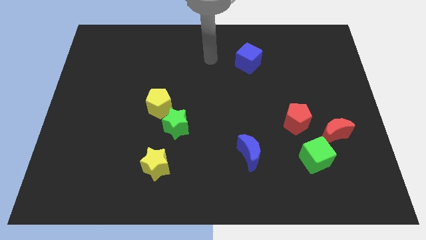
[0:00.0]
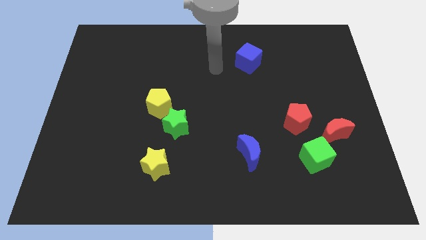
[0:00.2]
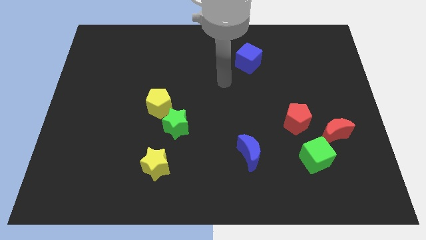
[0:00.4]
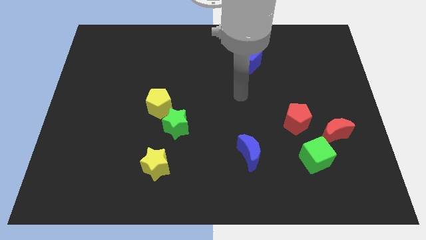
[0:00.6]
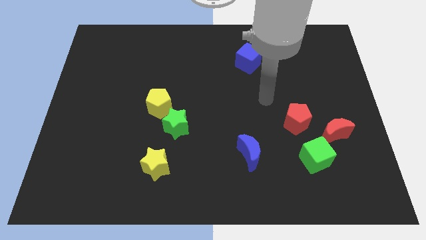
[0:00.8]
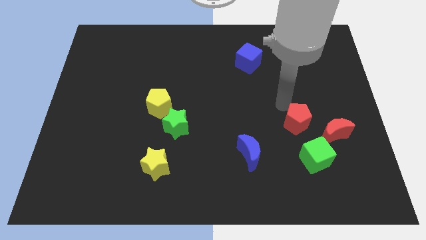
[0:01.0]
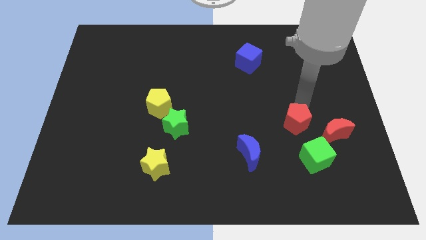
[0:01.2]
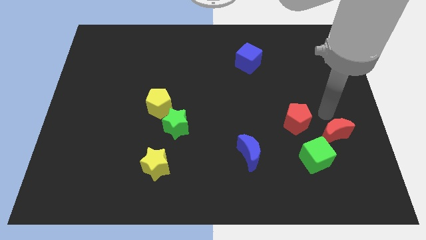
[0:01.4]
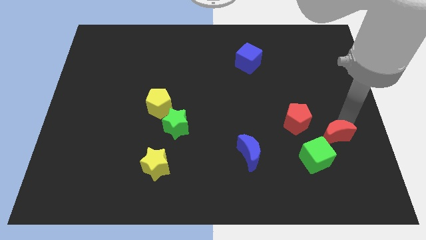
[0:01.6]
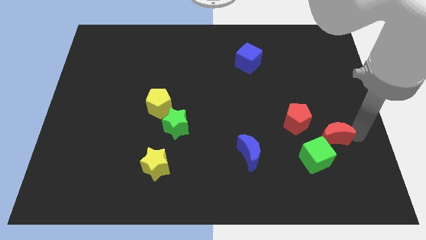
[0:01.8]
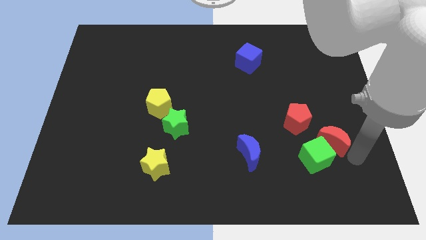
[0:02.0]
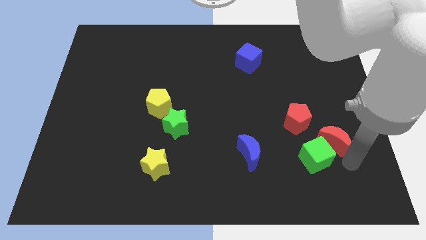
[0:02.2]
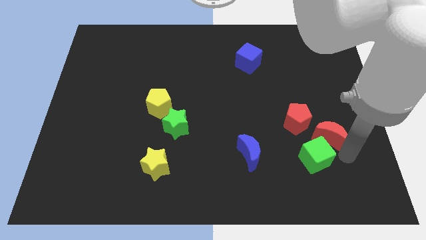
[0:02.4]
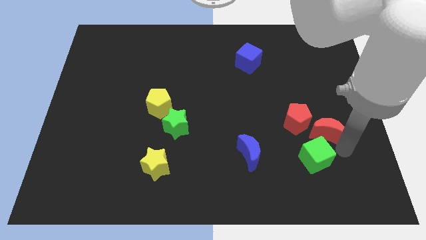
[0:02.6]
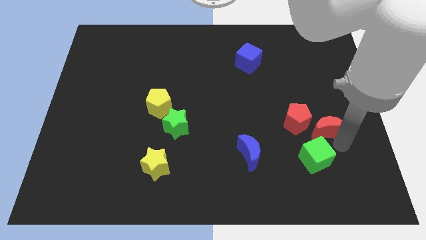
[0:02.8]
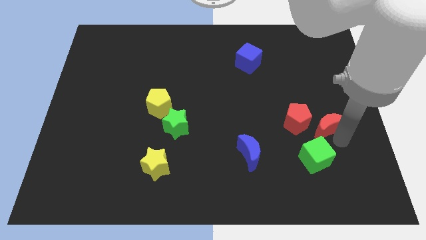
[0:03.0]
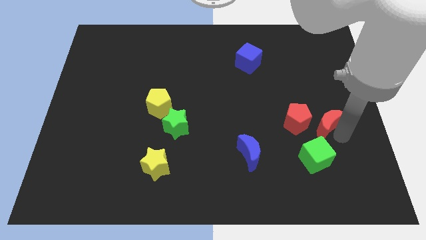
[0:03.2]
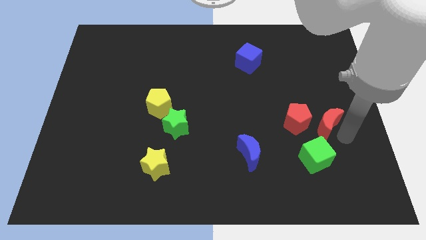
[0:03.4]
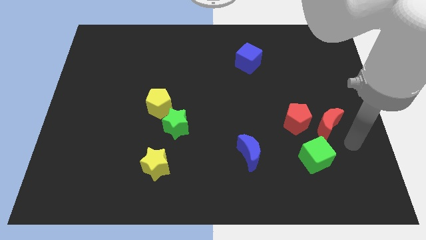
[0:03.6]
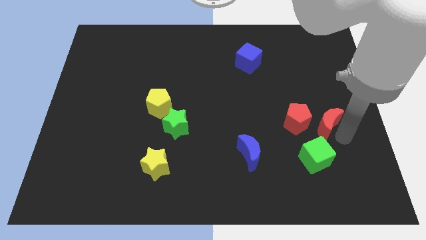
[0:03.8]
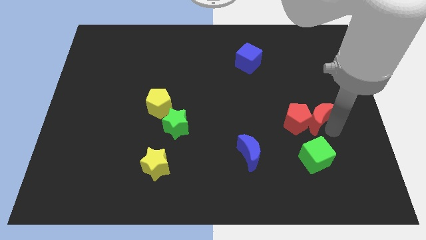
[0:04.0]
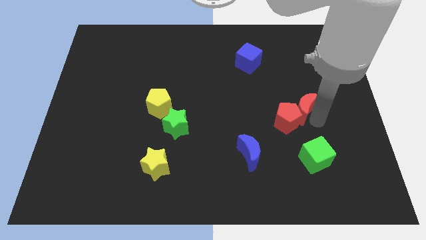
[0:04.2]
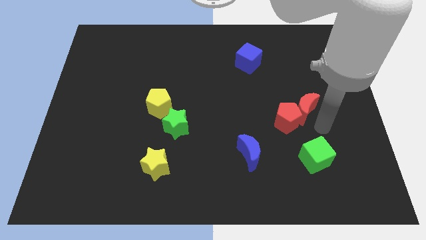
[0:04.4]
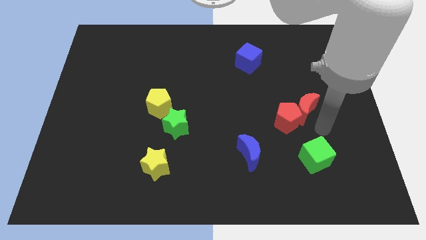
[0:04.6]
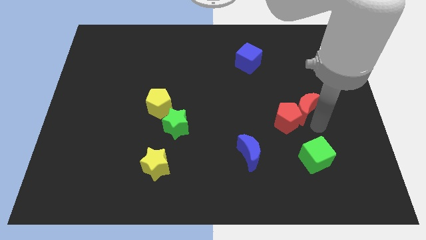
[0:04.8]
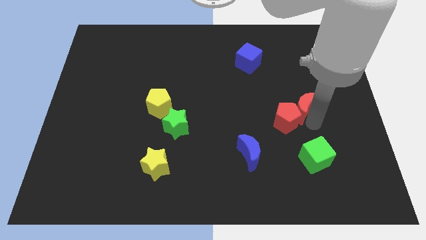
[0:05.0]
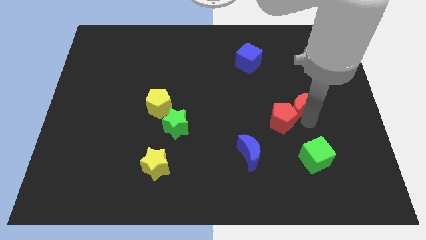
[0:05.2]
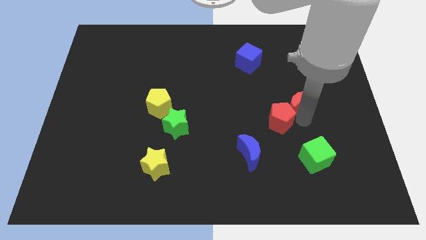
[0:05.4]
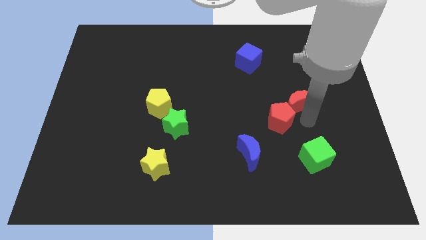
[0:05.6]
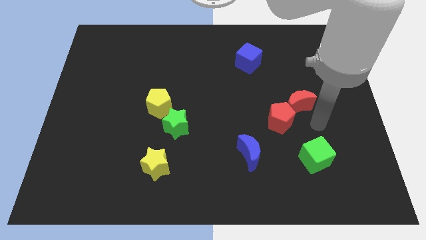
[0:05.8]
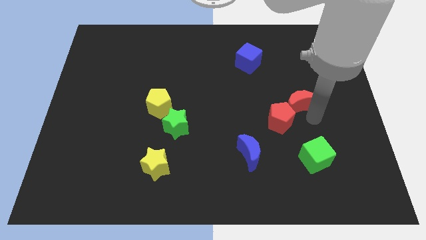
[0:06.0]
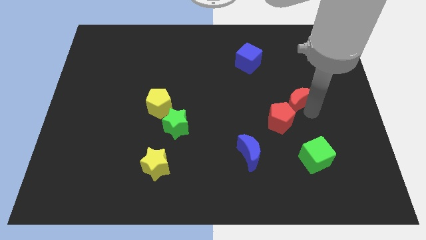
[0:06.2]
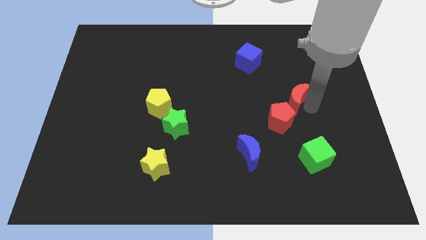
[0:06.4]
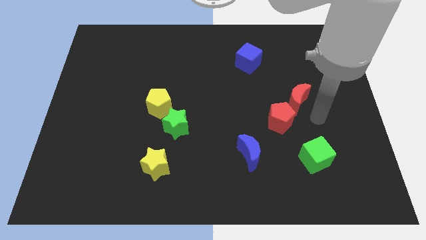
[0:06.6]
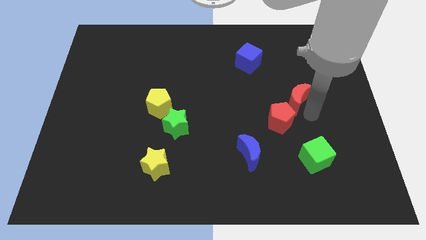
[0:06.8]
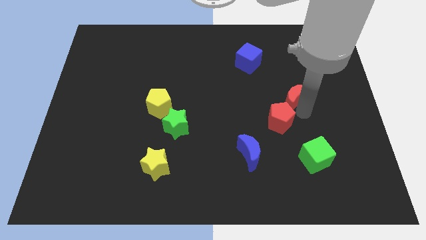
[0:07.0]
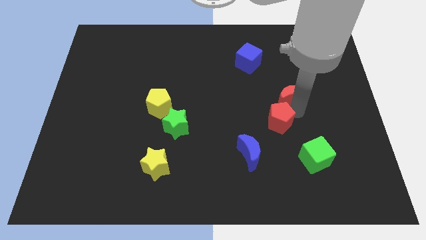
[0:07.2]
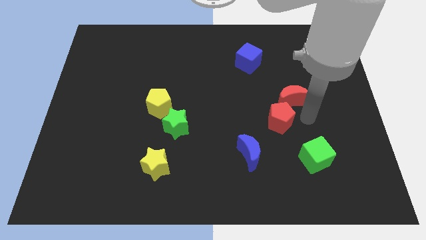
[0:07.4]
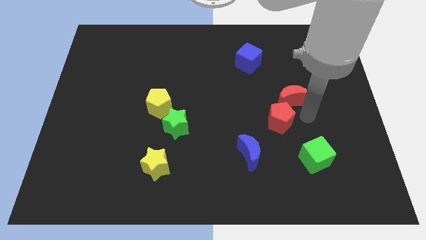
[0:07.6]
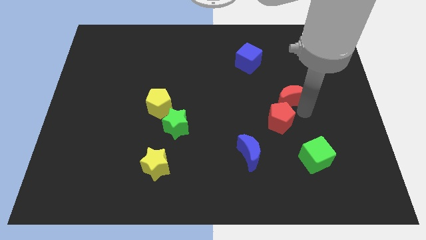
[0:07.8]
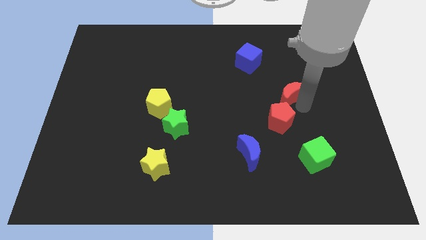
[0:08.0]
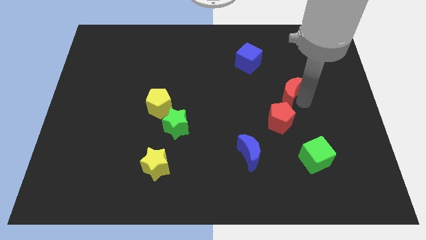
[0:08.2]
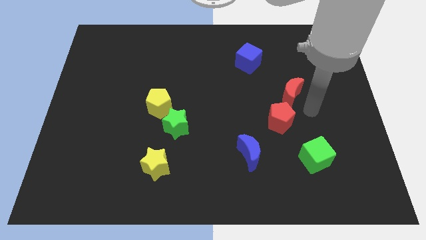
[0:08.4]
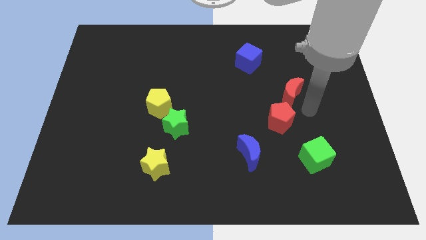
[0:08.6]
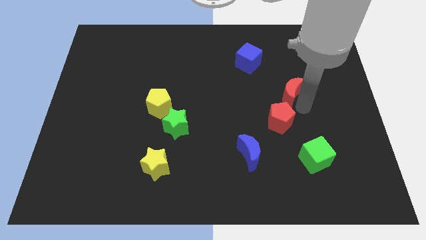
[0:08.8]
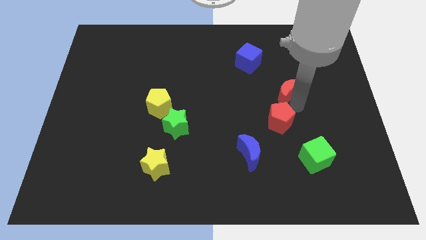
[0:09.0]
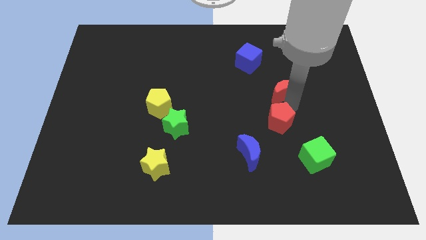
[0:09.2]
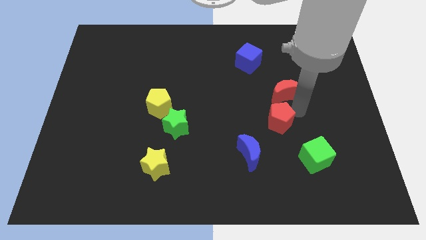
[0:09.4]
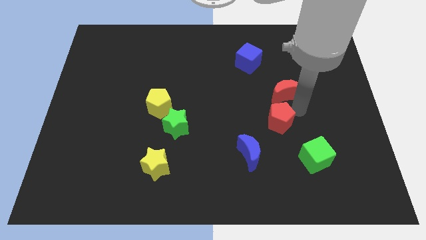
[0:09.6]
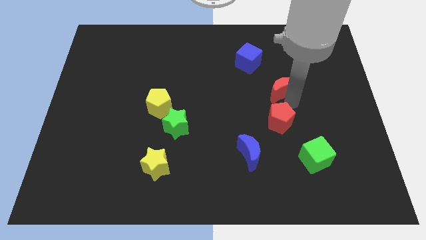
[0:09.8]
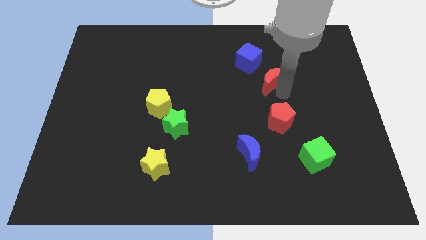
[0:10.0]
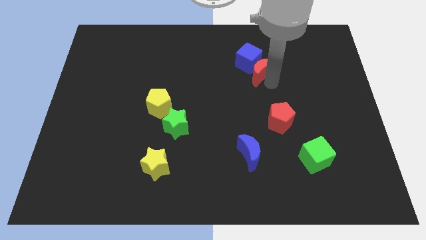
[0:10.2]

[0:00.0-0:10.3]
push the red moon to the blue cube

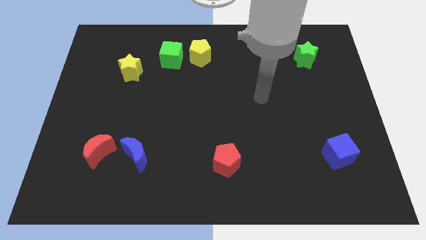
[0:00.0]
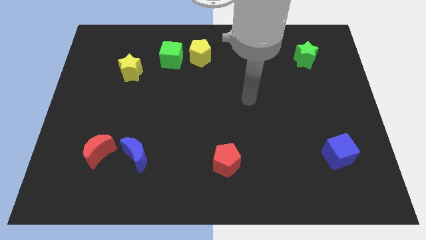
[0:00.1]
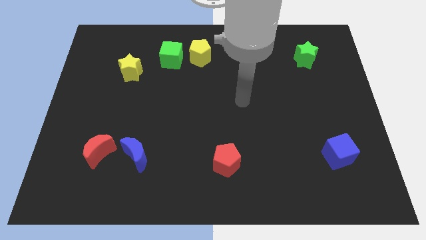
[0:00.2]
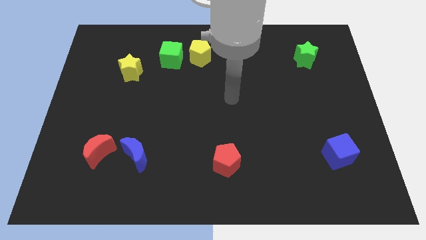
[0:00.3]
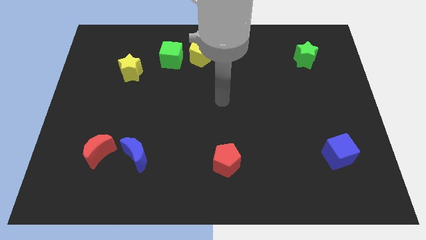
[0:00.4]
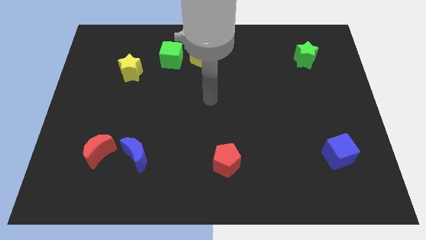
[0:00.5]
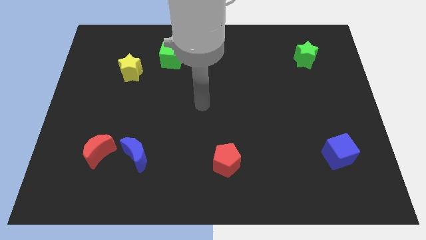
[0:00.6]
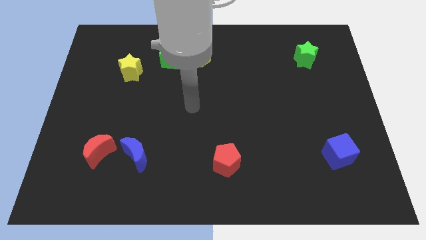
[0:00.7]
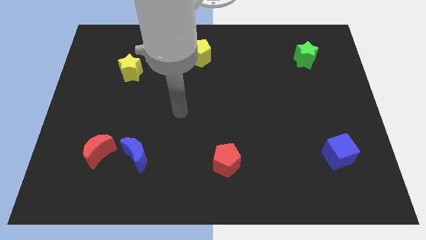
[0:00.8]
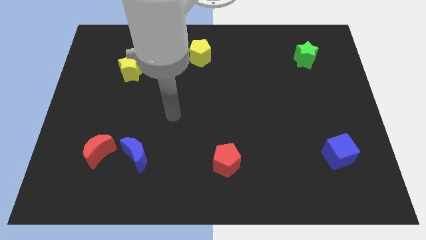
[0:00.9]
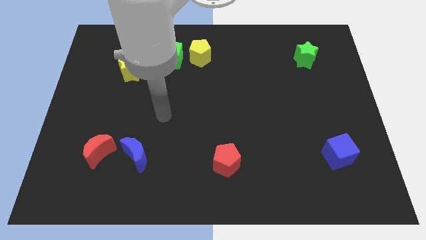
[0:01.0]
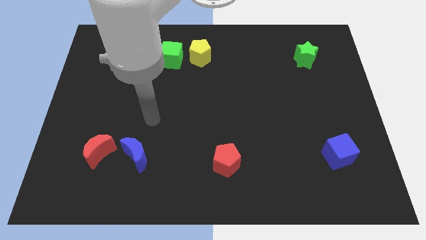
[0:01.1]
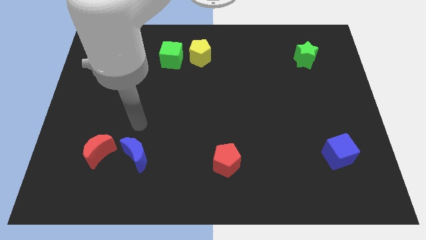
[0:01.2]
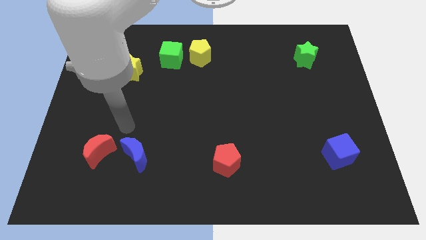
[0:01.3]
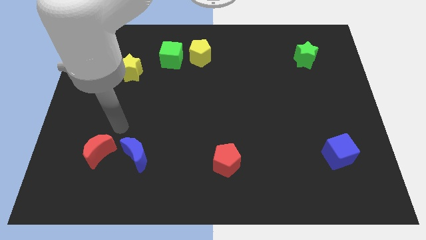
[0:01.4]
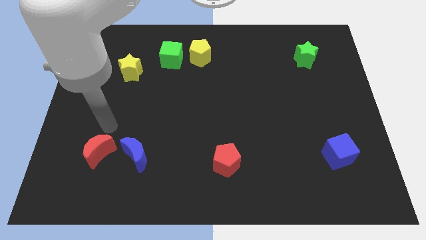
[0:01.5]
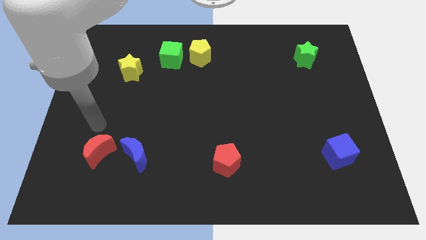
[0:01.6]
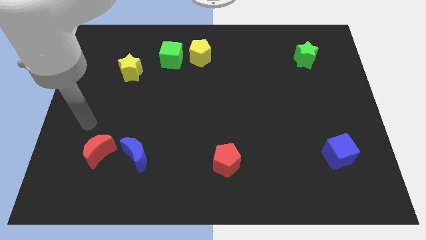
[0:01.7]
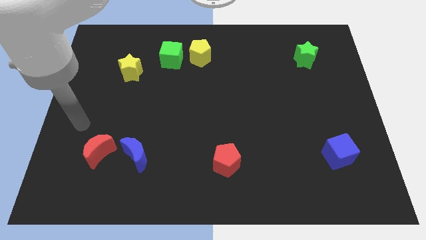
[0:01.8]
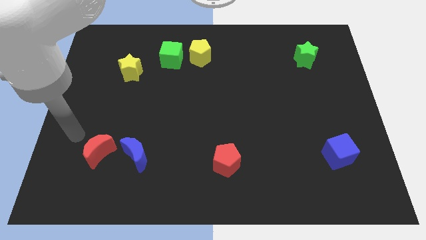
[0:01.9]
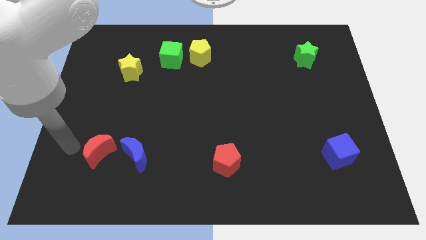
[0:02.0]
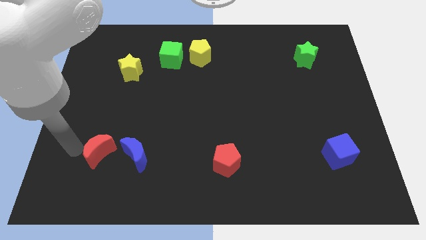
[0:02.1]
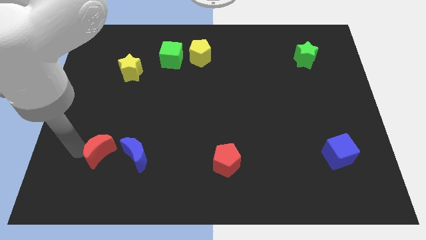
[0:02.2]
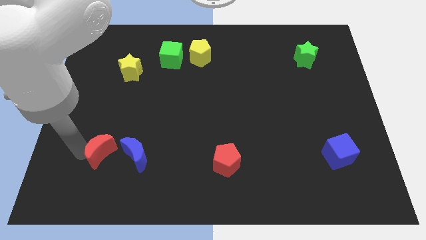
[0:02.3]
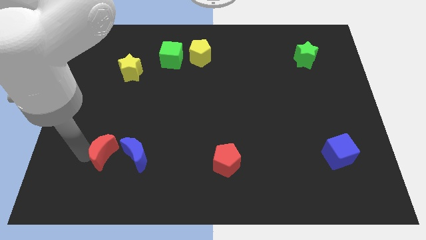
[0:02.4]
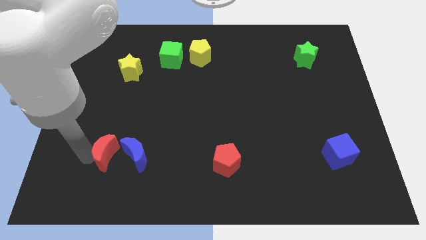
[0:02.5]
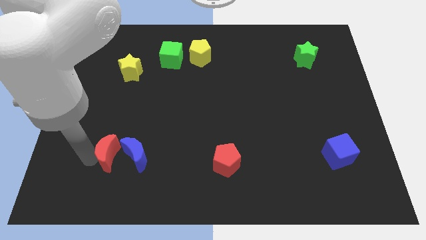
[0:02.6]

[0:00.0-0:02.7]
push the red moon next to the blue moon
